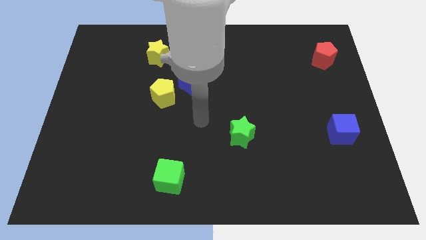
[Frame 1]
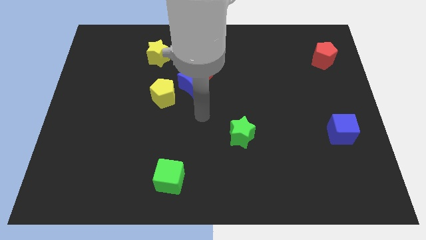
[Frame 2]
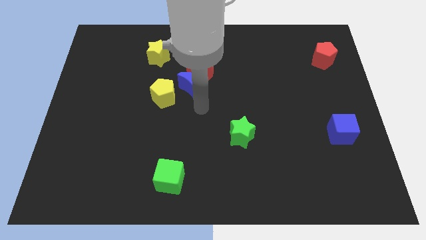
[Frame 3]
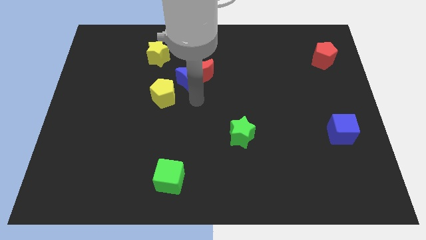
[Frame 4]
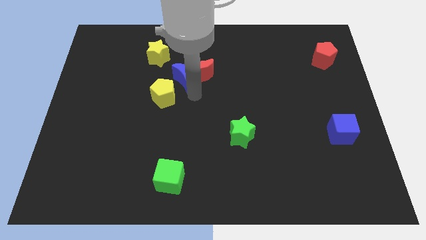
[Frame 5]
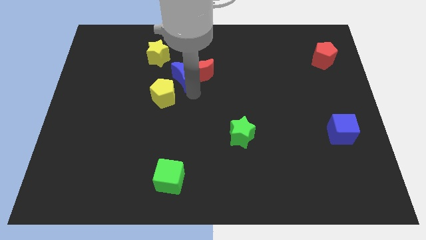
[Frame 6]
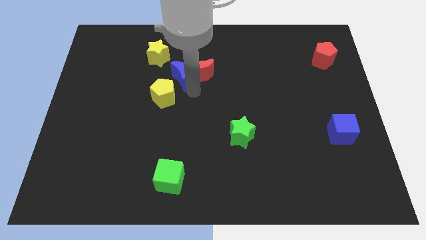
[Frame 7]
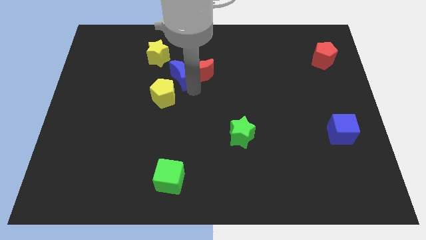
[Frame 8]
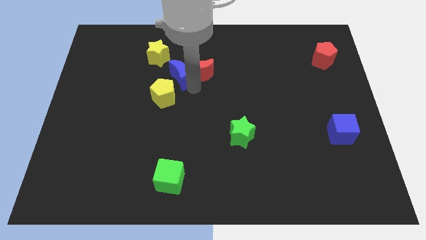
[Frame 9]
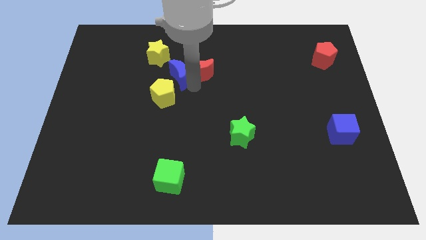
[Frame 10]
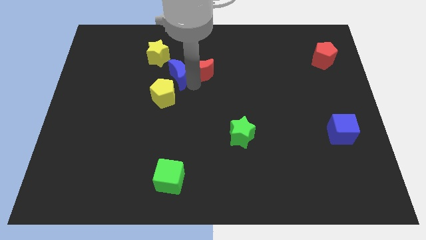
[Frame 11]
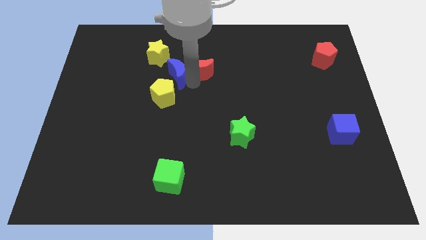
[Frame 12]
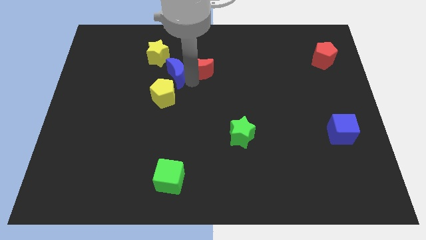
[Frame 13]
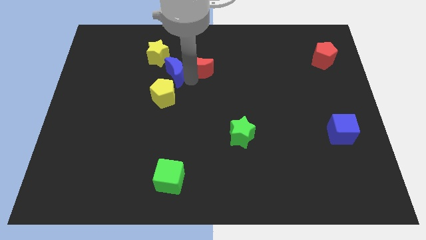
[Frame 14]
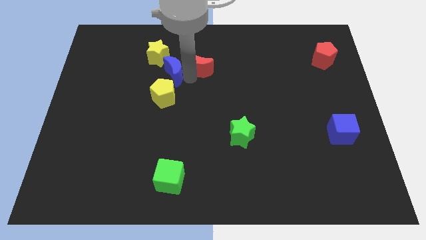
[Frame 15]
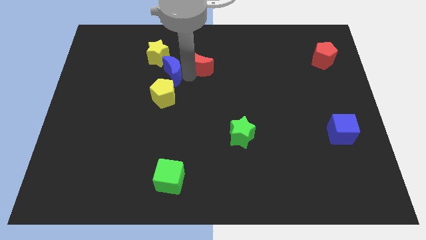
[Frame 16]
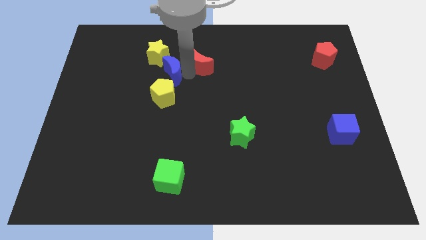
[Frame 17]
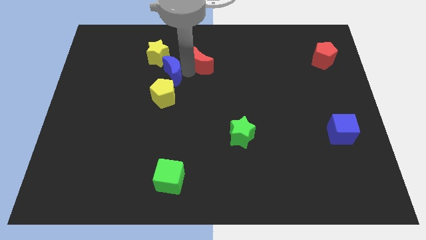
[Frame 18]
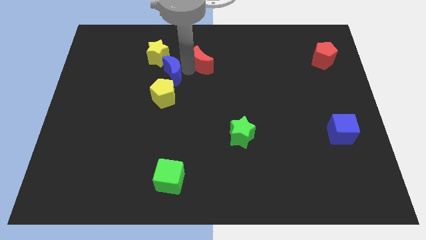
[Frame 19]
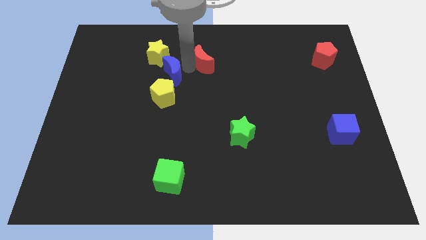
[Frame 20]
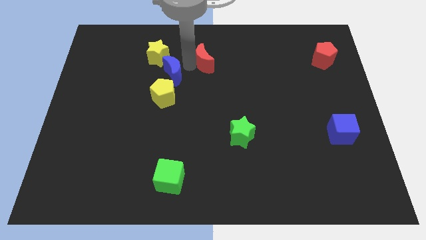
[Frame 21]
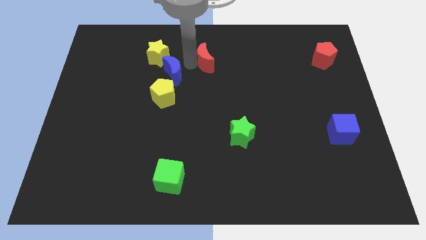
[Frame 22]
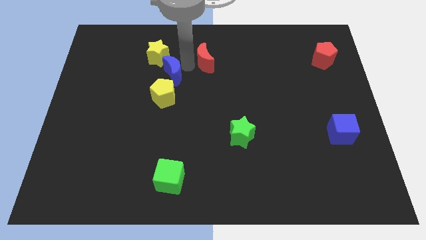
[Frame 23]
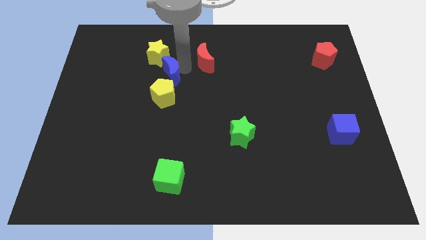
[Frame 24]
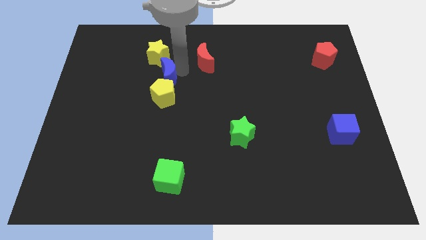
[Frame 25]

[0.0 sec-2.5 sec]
move the red moon away from the blue moon

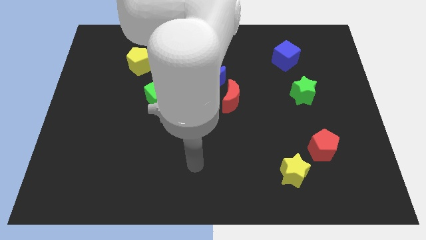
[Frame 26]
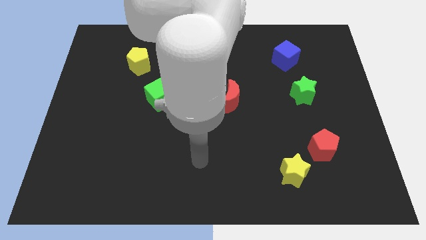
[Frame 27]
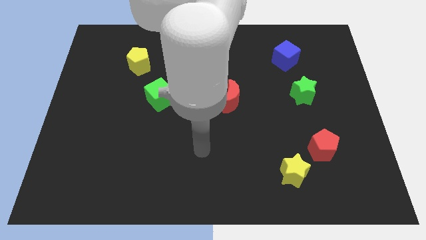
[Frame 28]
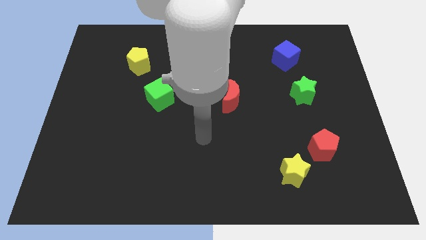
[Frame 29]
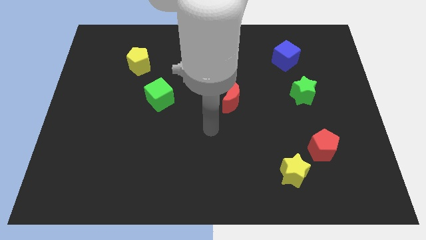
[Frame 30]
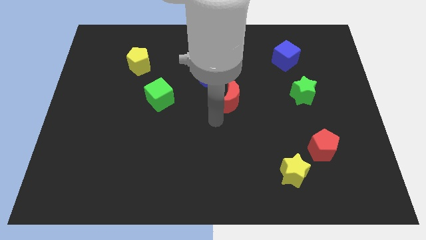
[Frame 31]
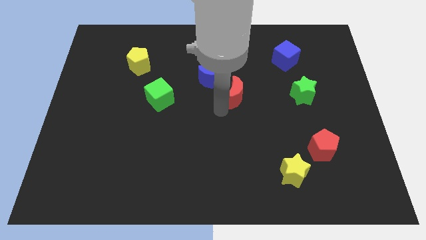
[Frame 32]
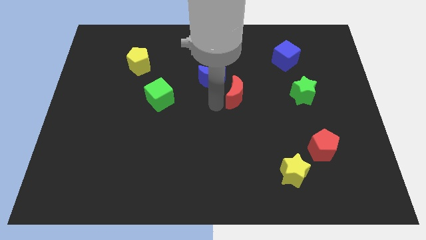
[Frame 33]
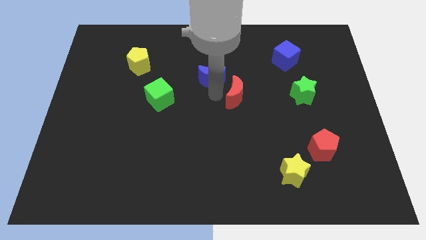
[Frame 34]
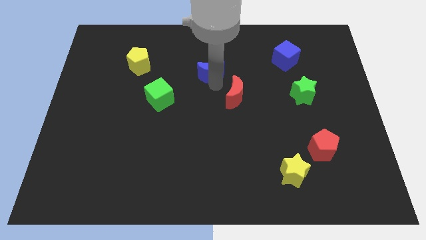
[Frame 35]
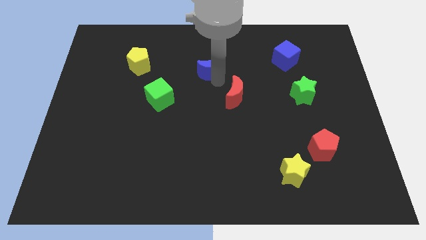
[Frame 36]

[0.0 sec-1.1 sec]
separate the red moon from the blue moon

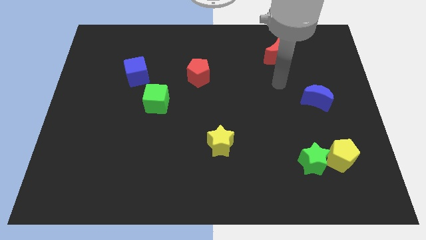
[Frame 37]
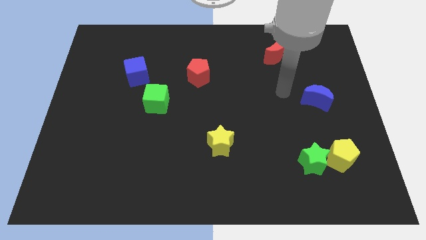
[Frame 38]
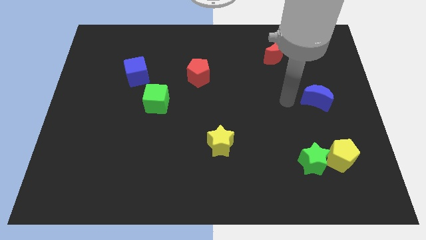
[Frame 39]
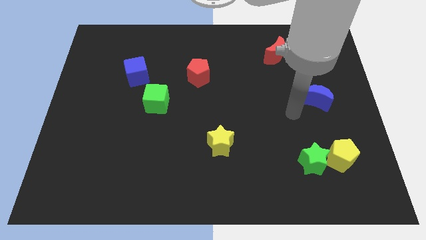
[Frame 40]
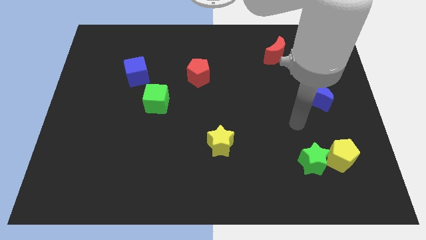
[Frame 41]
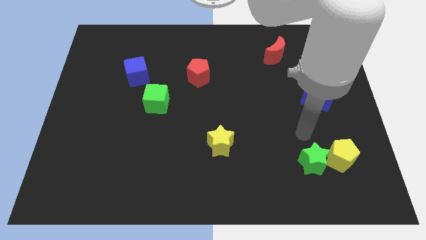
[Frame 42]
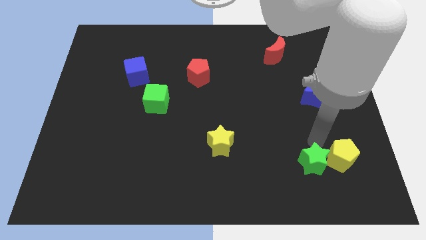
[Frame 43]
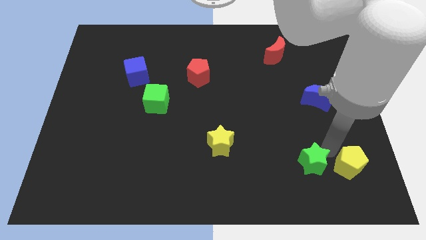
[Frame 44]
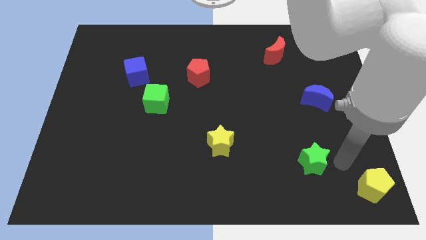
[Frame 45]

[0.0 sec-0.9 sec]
pull the green star apart from the yellow pentagon

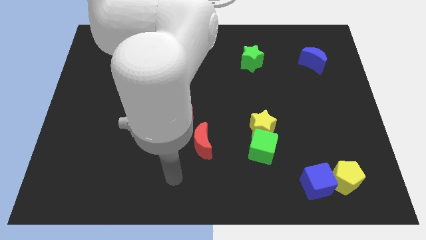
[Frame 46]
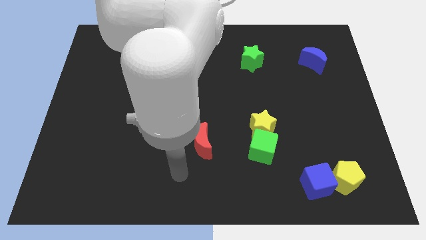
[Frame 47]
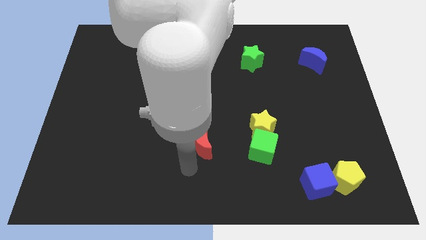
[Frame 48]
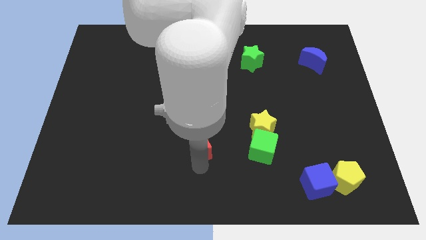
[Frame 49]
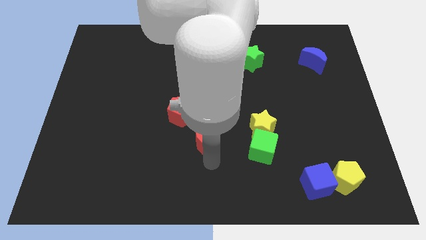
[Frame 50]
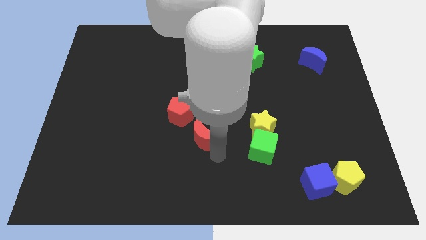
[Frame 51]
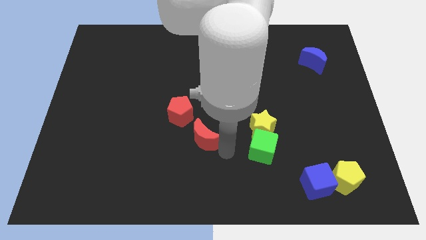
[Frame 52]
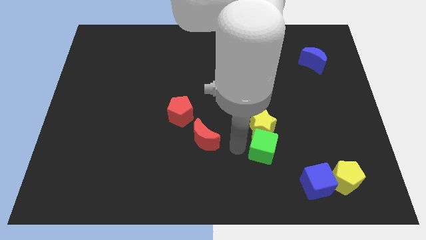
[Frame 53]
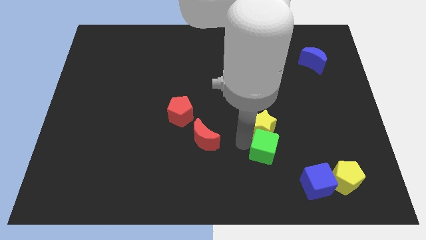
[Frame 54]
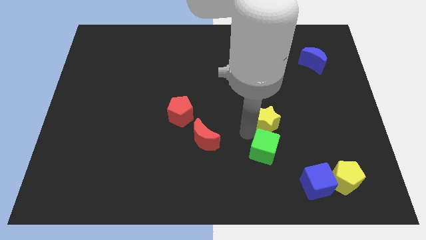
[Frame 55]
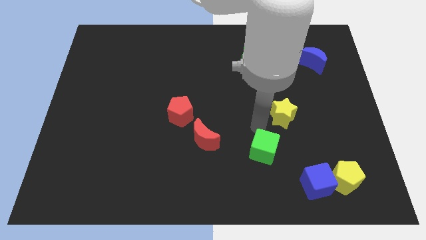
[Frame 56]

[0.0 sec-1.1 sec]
separate the green cube from the yellow star

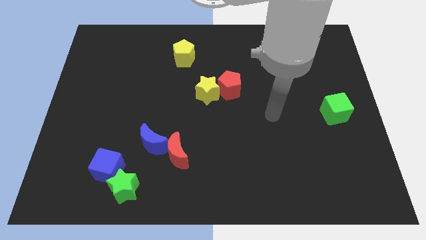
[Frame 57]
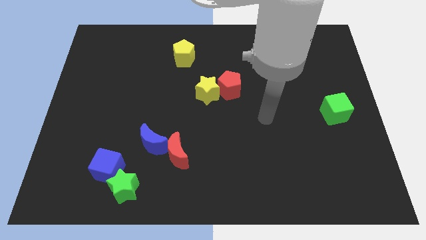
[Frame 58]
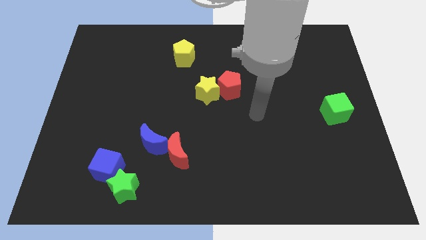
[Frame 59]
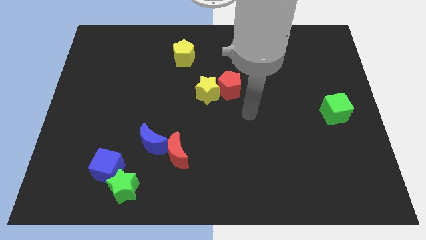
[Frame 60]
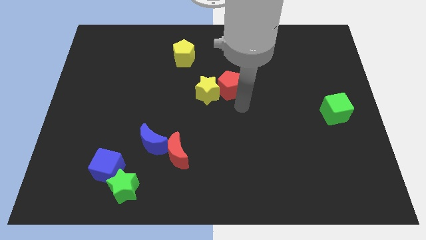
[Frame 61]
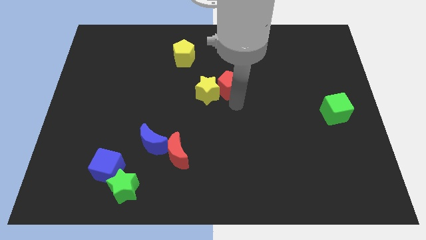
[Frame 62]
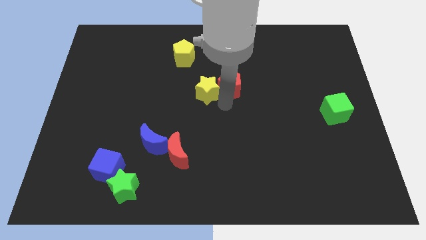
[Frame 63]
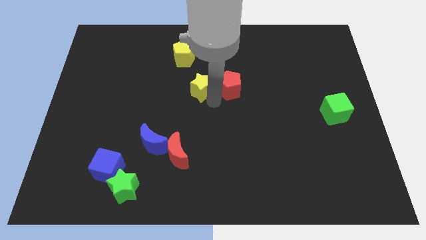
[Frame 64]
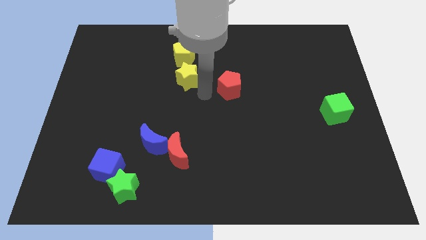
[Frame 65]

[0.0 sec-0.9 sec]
move the red pentagon away from the yellow star

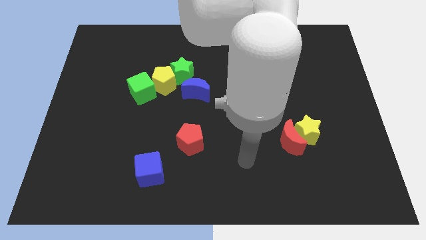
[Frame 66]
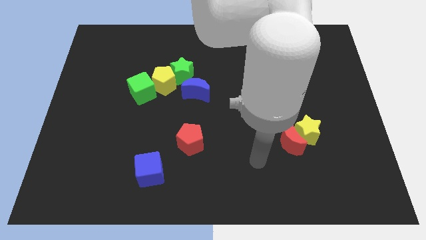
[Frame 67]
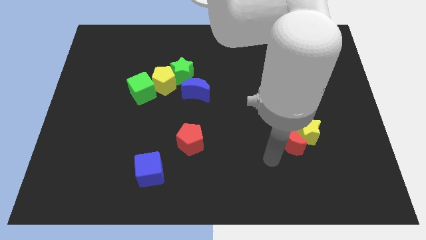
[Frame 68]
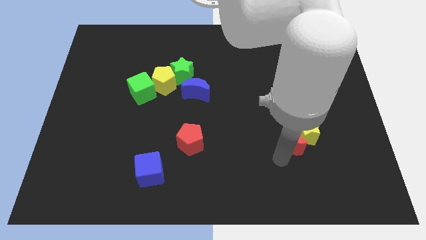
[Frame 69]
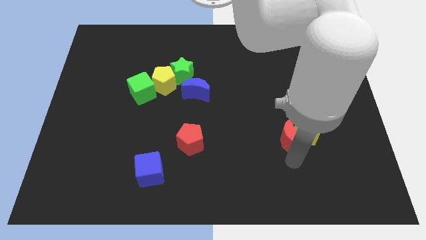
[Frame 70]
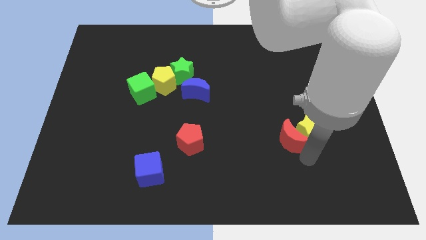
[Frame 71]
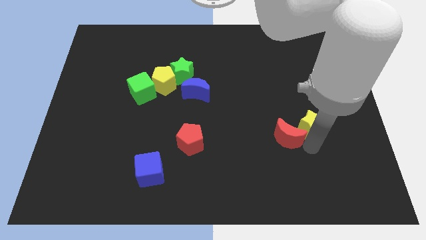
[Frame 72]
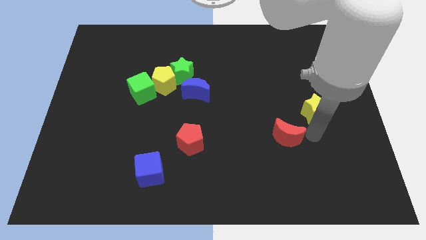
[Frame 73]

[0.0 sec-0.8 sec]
pull the red moon apart from the yellow star

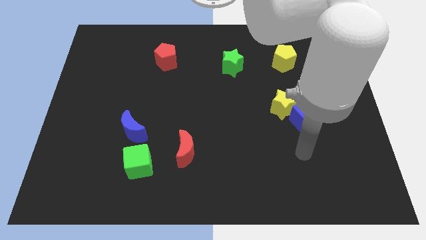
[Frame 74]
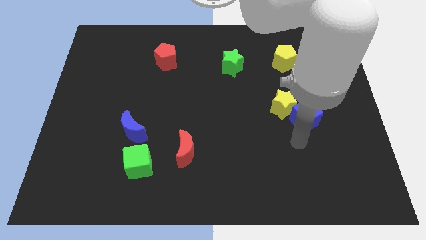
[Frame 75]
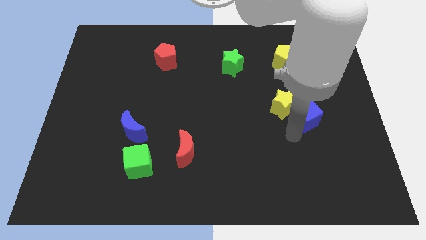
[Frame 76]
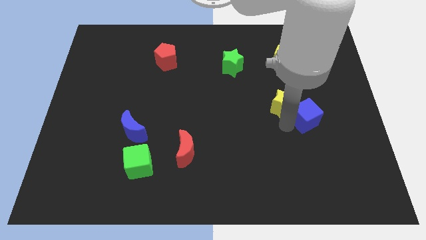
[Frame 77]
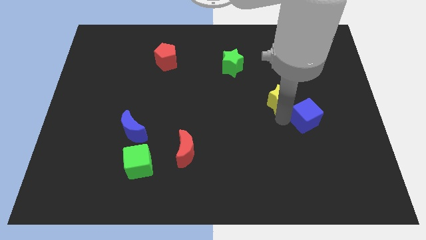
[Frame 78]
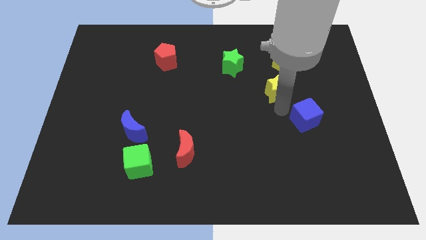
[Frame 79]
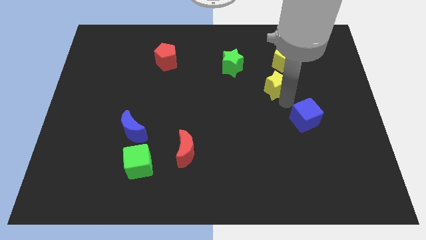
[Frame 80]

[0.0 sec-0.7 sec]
separate the blue cube from the yellow star

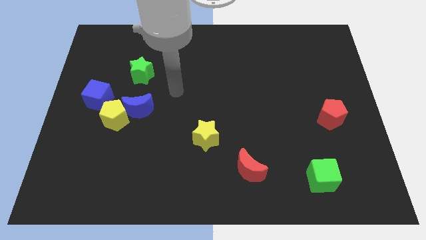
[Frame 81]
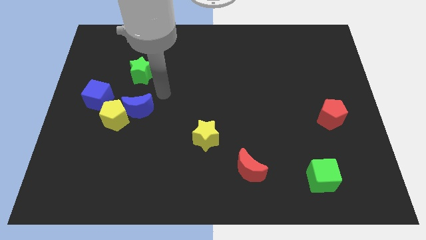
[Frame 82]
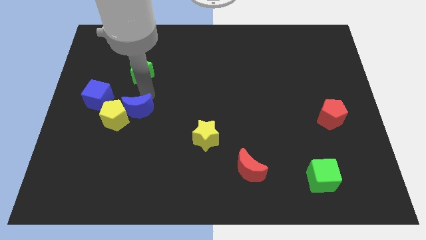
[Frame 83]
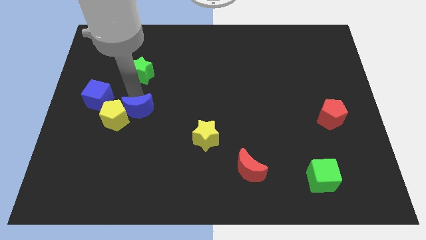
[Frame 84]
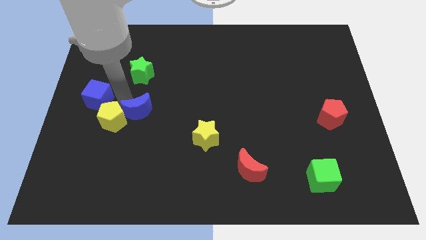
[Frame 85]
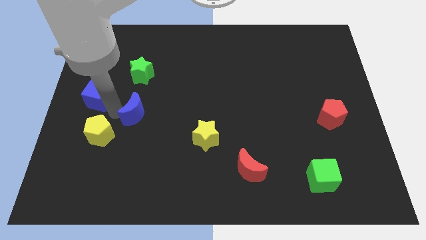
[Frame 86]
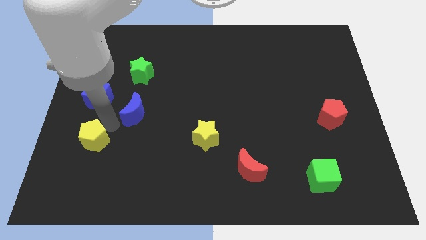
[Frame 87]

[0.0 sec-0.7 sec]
pull the blue moon apart from the yellow pentagon

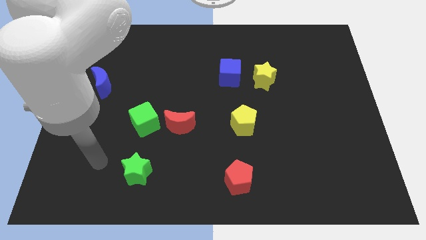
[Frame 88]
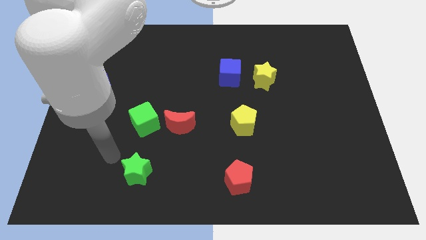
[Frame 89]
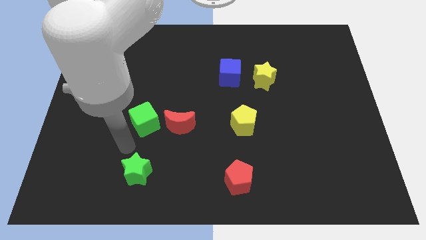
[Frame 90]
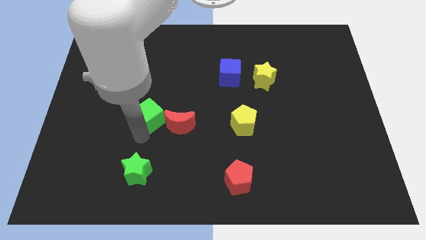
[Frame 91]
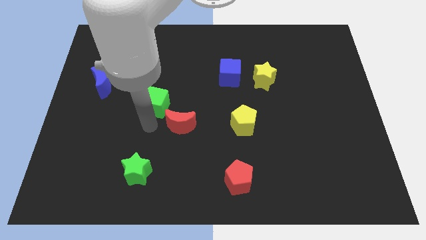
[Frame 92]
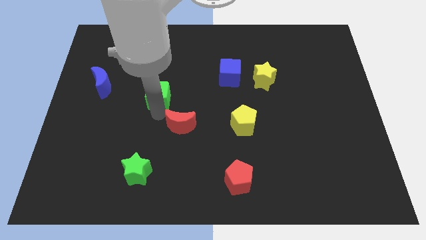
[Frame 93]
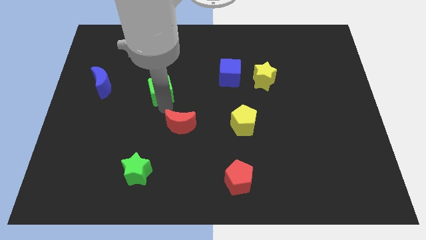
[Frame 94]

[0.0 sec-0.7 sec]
move the red moon away from the green cube
